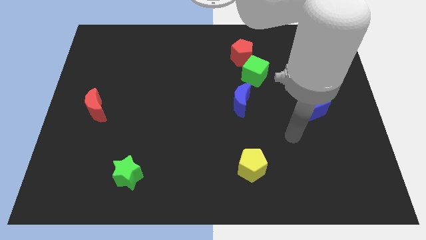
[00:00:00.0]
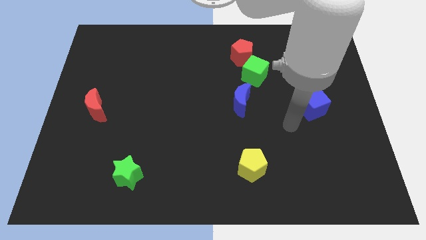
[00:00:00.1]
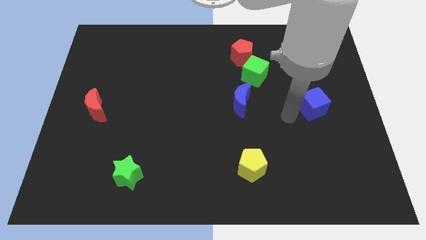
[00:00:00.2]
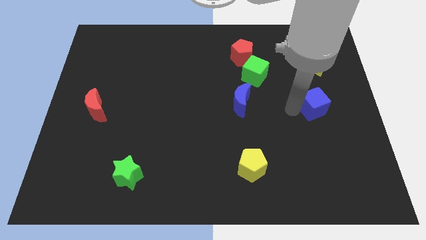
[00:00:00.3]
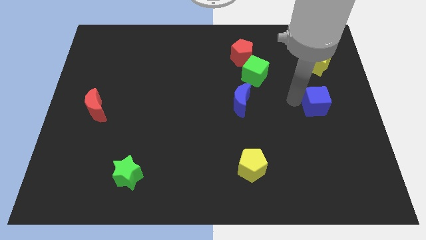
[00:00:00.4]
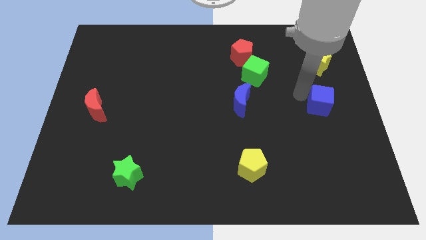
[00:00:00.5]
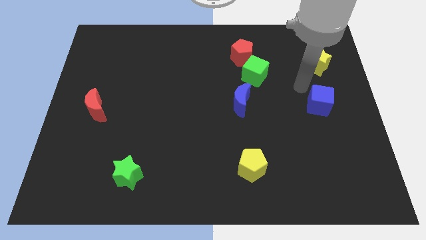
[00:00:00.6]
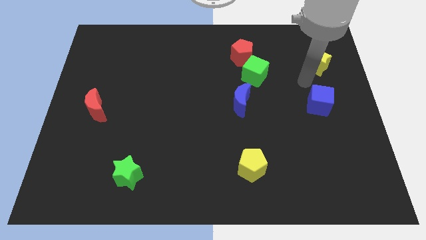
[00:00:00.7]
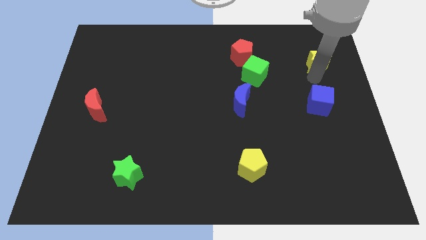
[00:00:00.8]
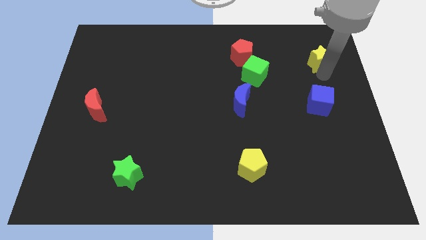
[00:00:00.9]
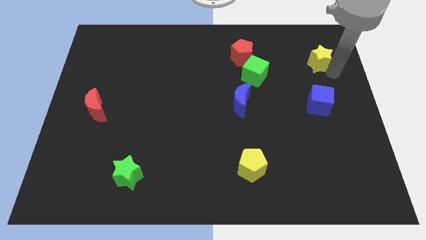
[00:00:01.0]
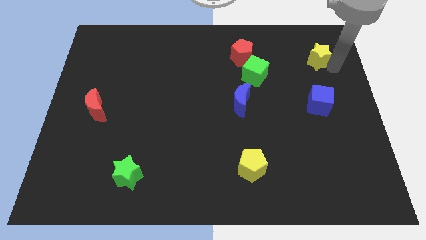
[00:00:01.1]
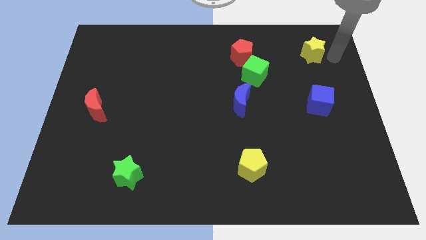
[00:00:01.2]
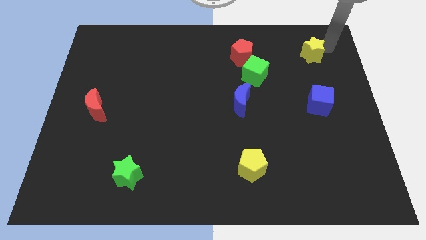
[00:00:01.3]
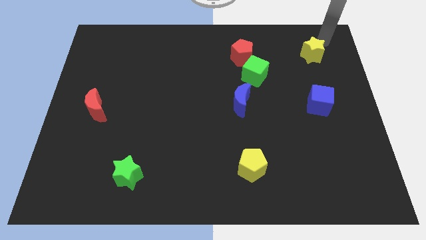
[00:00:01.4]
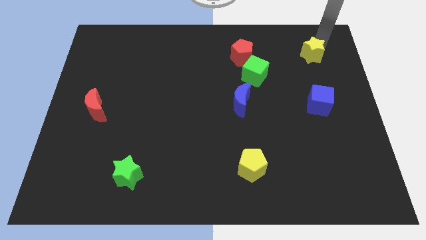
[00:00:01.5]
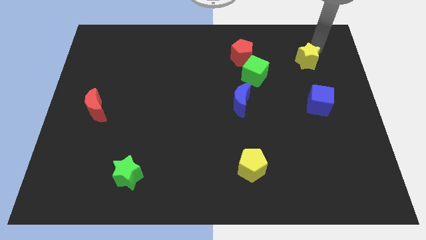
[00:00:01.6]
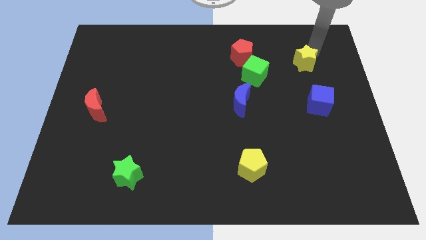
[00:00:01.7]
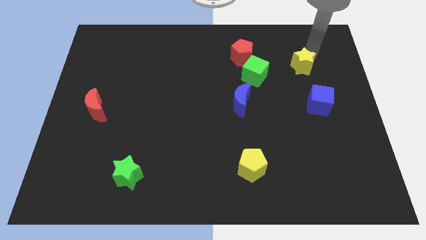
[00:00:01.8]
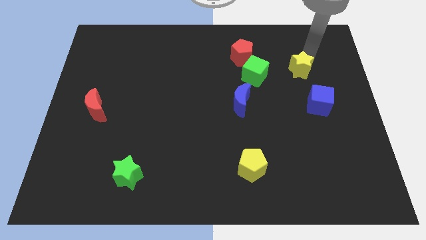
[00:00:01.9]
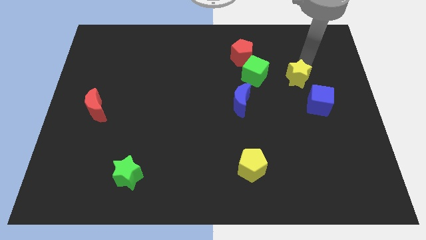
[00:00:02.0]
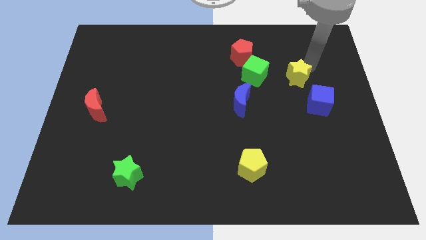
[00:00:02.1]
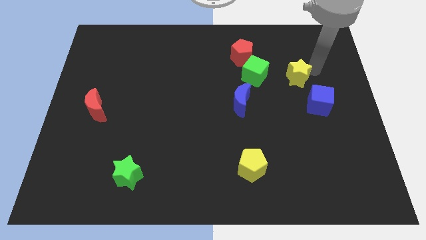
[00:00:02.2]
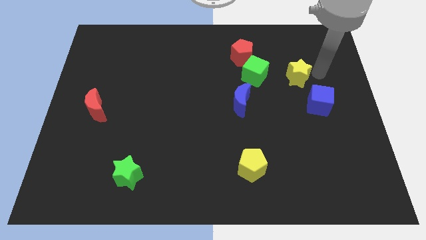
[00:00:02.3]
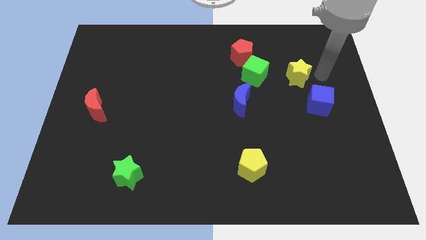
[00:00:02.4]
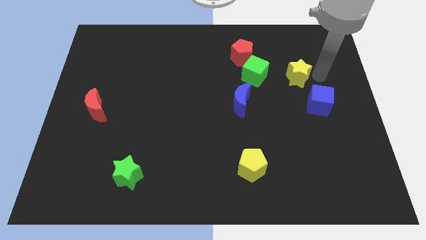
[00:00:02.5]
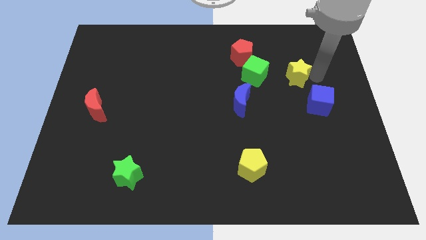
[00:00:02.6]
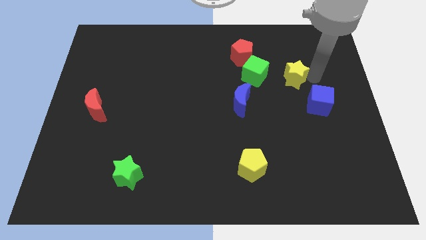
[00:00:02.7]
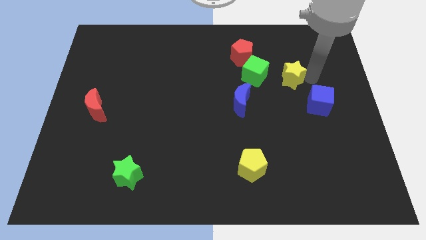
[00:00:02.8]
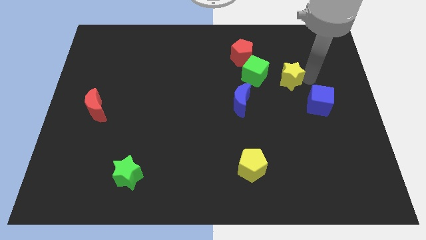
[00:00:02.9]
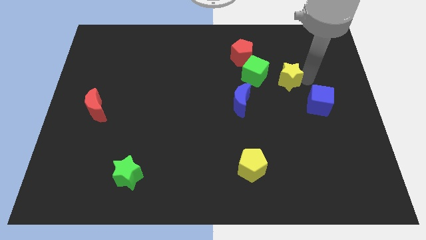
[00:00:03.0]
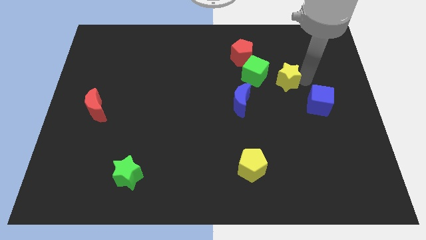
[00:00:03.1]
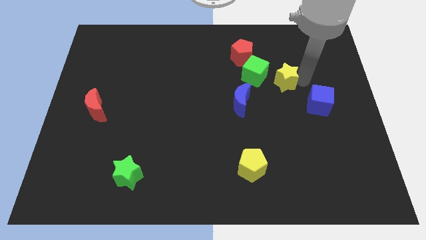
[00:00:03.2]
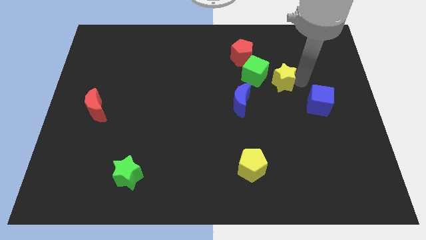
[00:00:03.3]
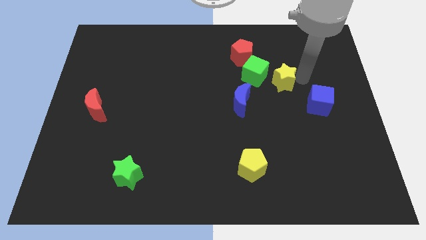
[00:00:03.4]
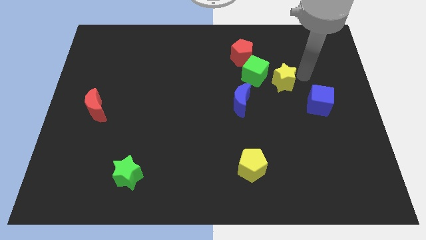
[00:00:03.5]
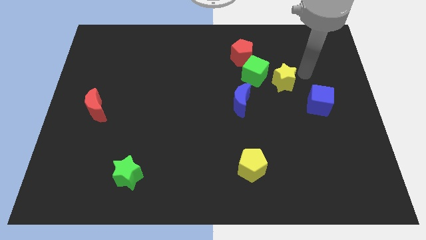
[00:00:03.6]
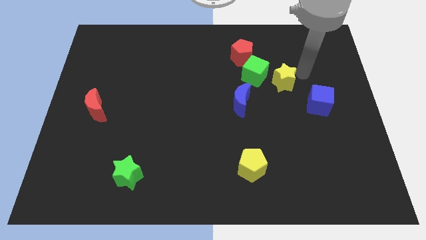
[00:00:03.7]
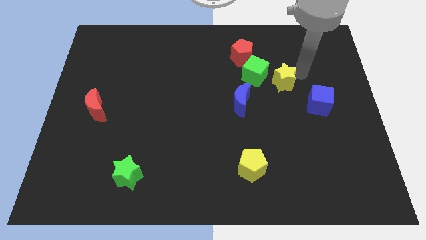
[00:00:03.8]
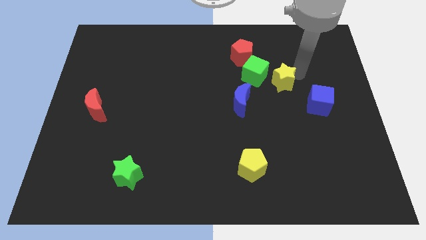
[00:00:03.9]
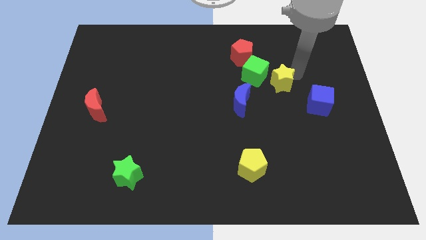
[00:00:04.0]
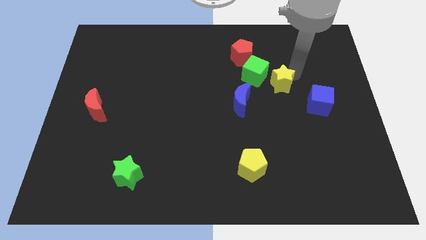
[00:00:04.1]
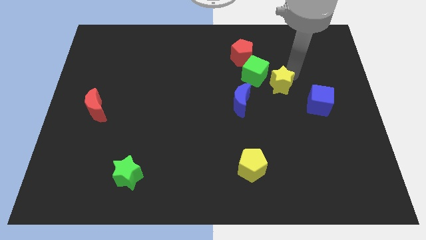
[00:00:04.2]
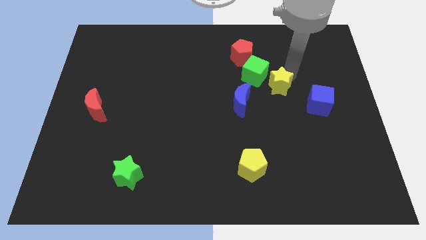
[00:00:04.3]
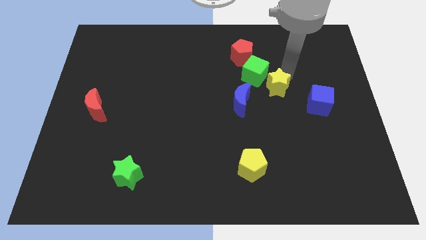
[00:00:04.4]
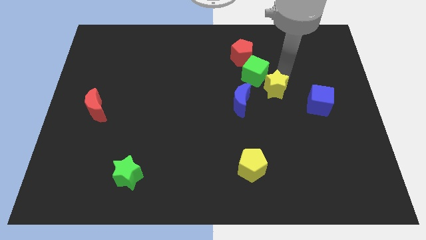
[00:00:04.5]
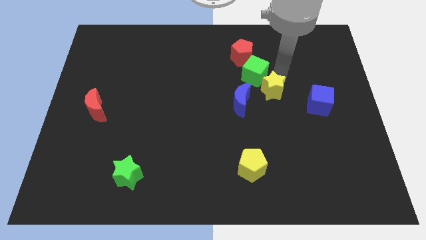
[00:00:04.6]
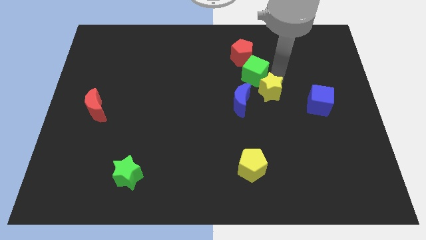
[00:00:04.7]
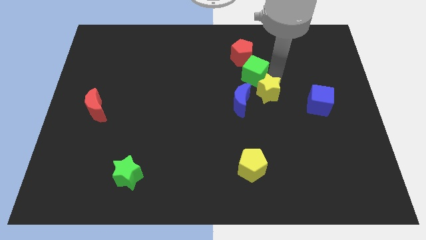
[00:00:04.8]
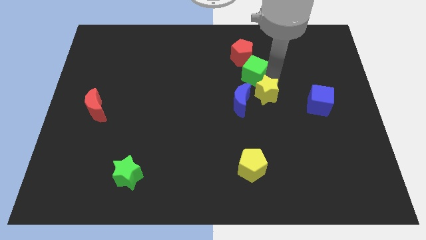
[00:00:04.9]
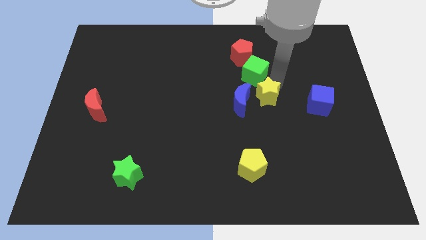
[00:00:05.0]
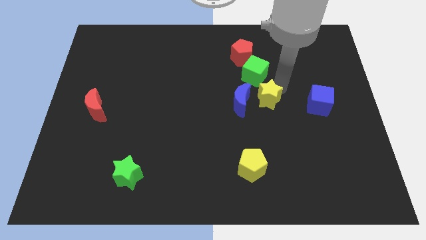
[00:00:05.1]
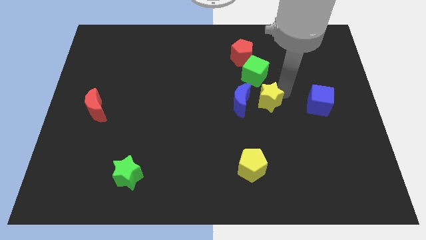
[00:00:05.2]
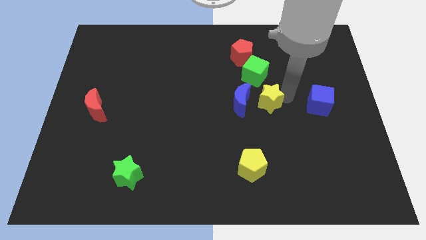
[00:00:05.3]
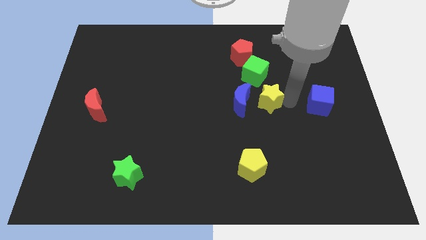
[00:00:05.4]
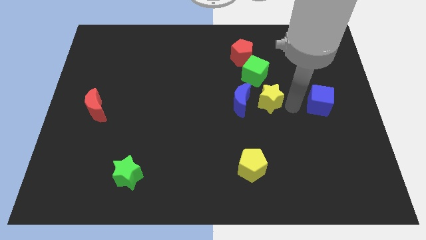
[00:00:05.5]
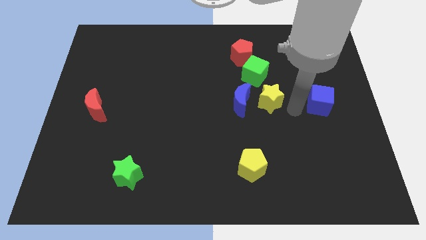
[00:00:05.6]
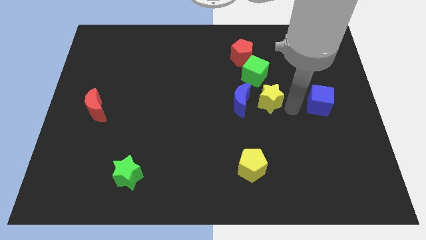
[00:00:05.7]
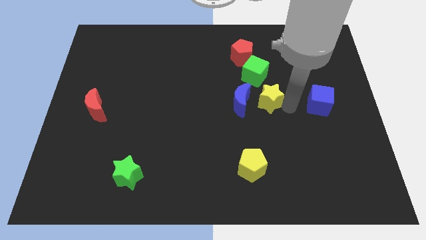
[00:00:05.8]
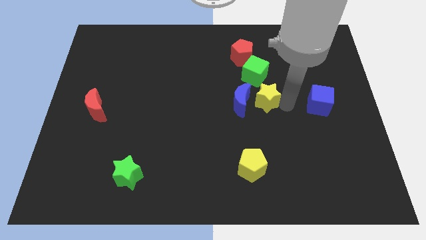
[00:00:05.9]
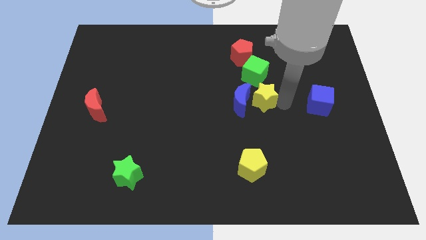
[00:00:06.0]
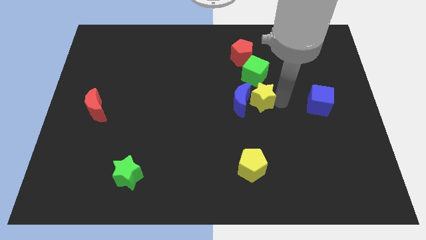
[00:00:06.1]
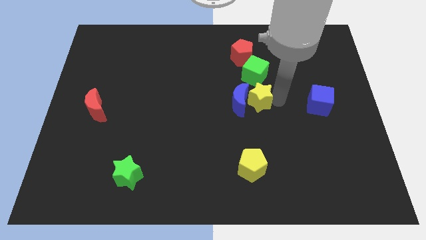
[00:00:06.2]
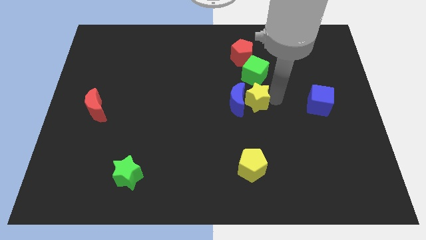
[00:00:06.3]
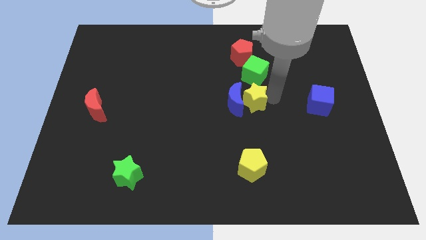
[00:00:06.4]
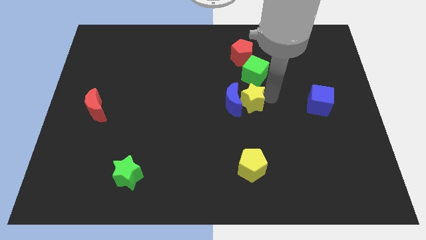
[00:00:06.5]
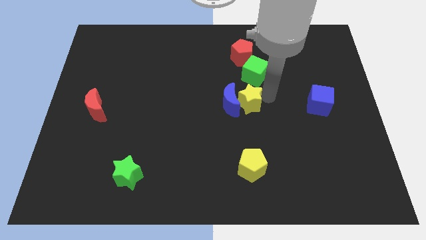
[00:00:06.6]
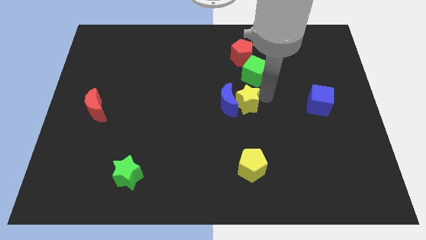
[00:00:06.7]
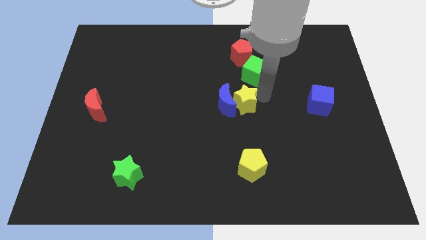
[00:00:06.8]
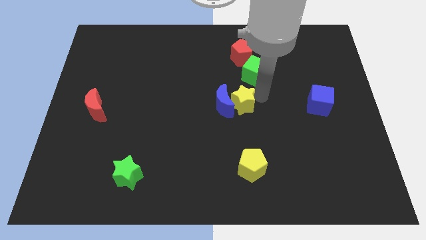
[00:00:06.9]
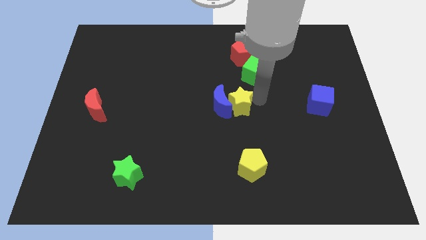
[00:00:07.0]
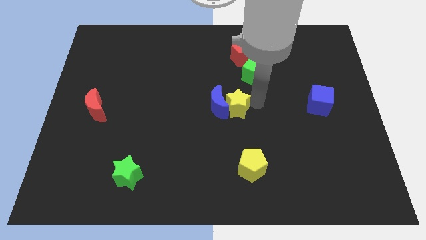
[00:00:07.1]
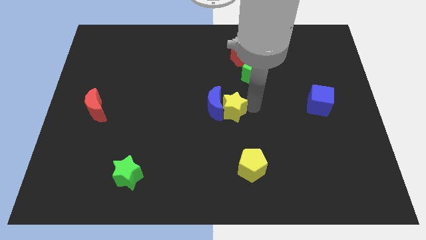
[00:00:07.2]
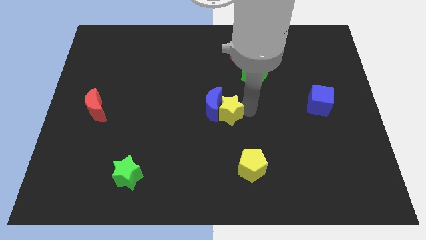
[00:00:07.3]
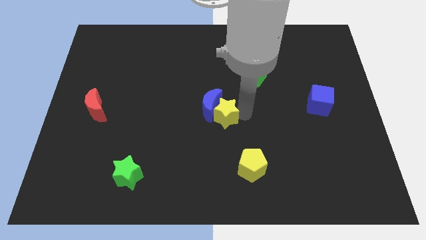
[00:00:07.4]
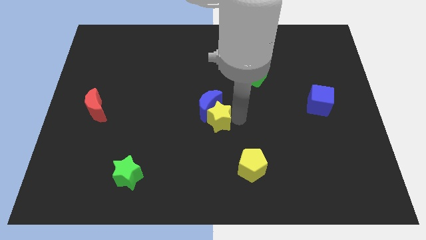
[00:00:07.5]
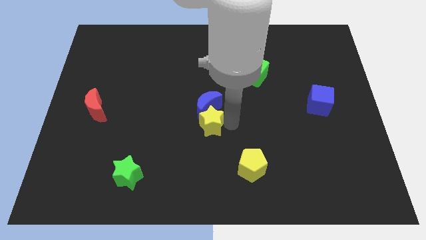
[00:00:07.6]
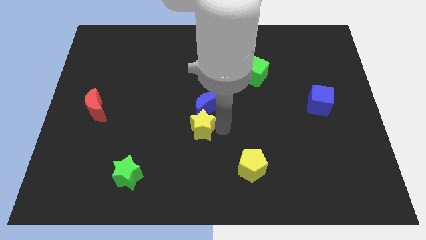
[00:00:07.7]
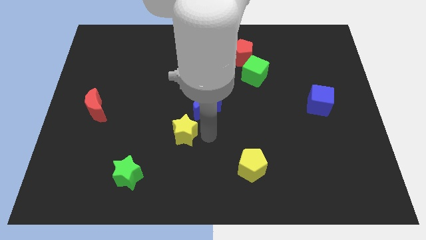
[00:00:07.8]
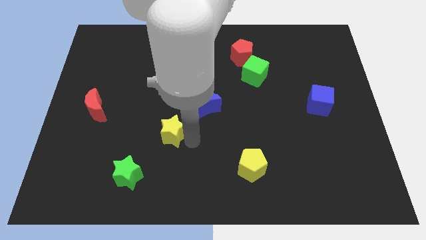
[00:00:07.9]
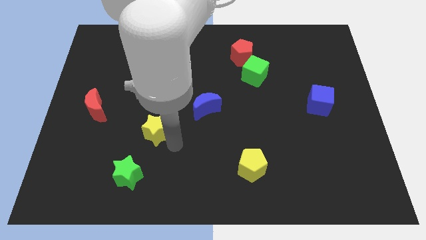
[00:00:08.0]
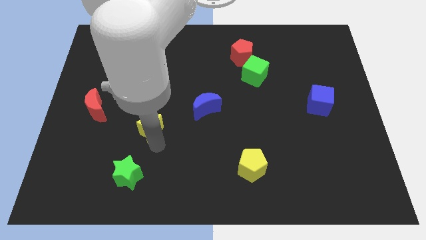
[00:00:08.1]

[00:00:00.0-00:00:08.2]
move the yellow star above the green star
